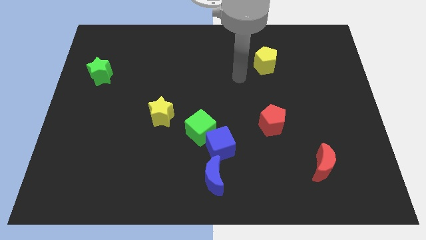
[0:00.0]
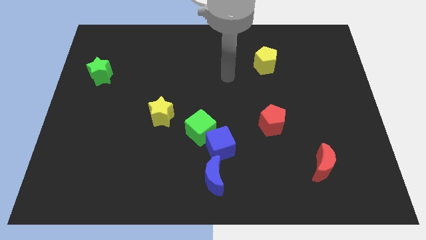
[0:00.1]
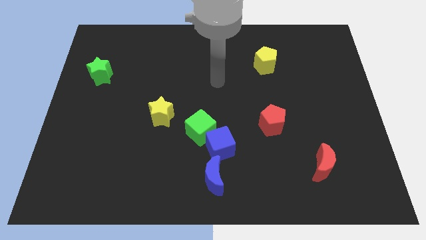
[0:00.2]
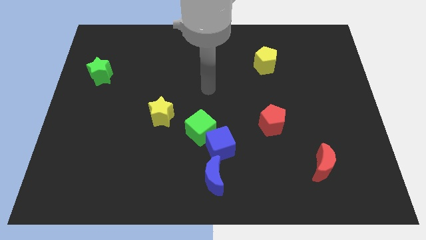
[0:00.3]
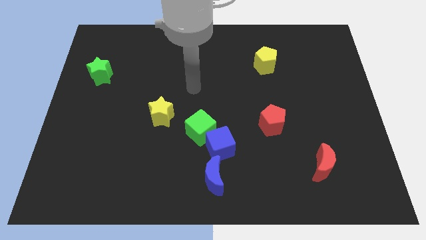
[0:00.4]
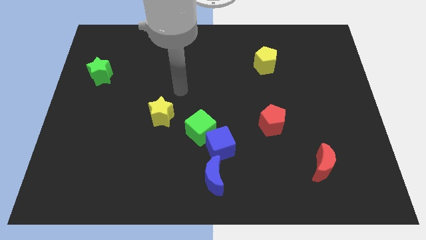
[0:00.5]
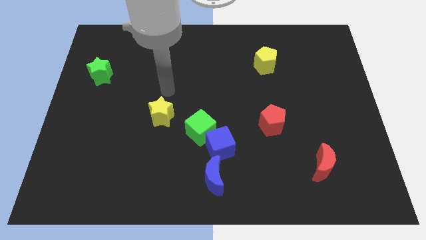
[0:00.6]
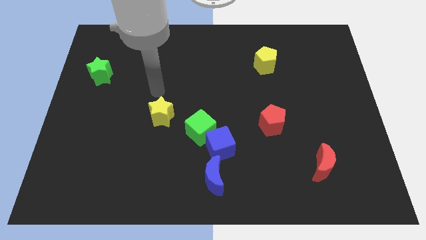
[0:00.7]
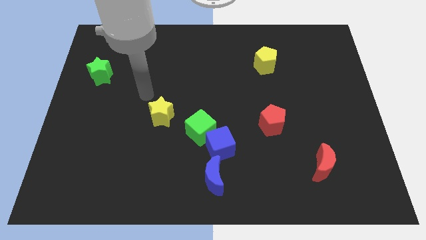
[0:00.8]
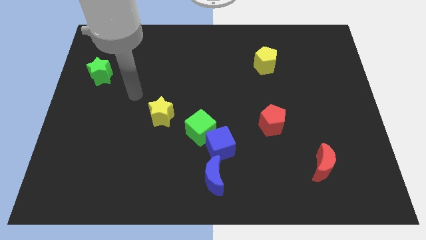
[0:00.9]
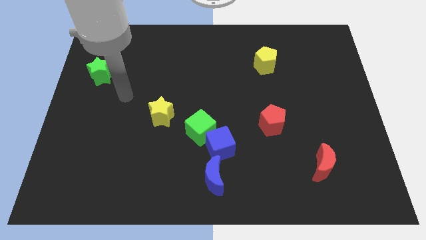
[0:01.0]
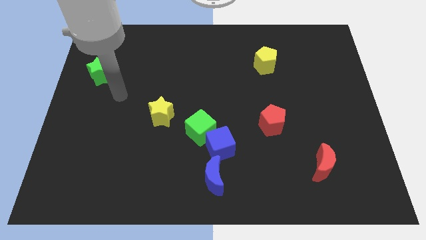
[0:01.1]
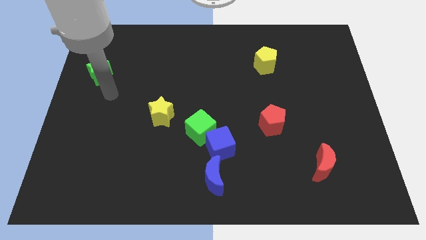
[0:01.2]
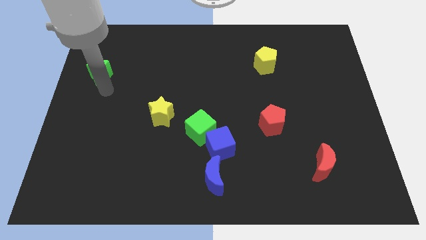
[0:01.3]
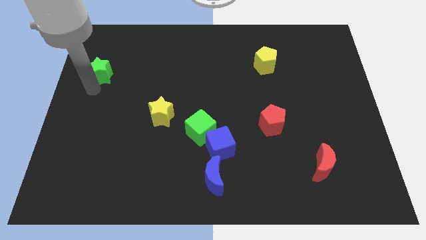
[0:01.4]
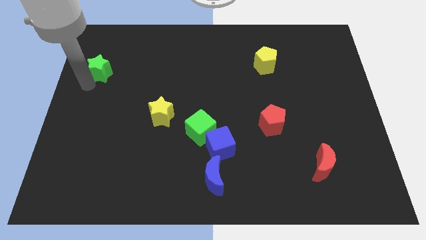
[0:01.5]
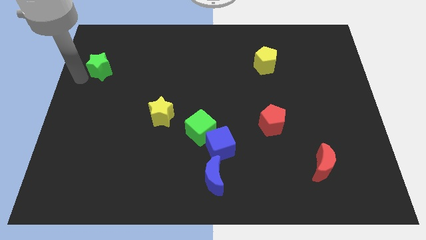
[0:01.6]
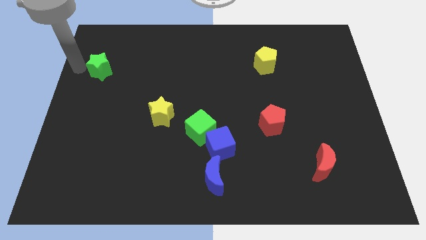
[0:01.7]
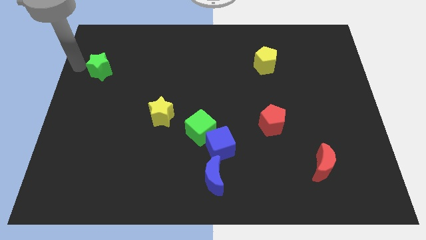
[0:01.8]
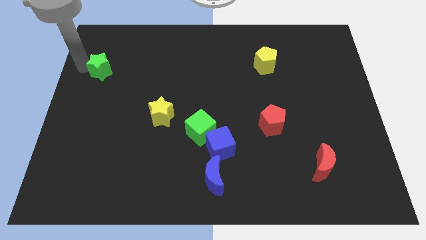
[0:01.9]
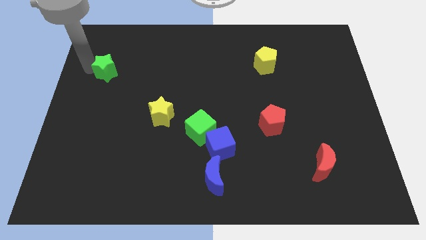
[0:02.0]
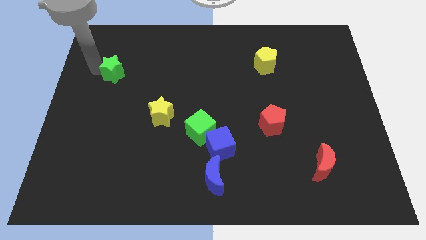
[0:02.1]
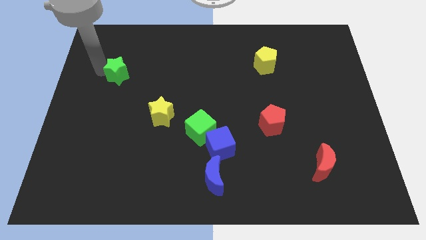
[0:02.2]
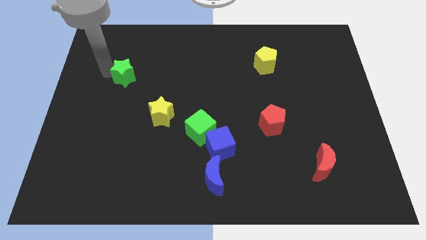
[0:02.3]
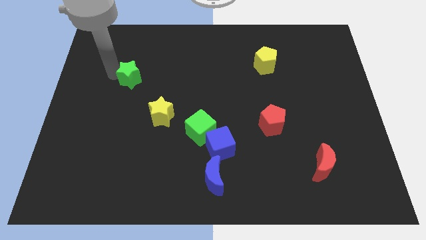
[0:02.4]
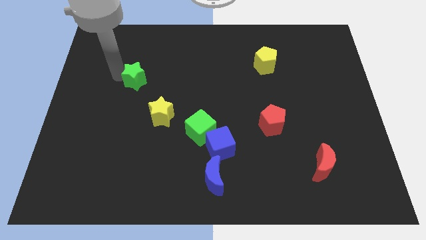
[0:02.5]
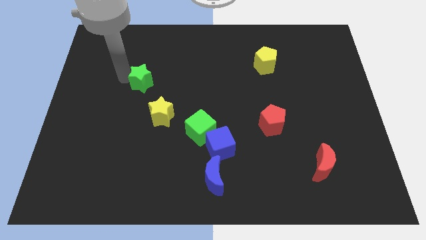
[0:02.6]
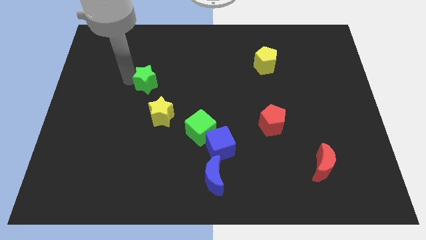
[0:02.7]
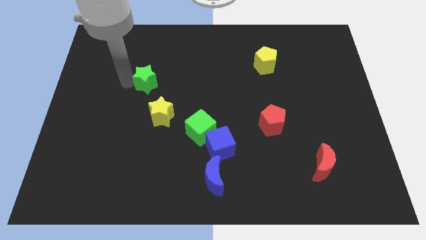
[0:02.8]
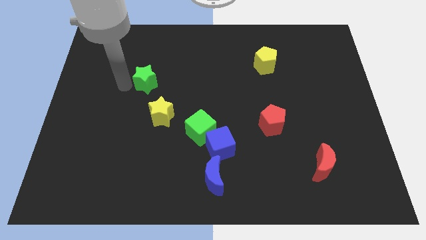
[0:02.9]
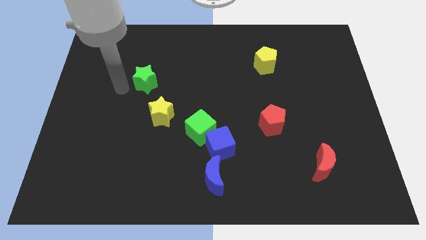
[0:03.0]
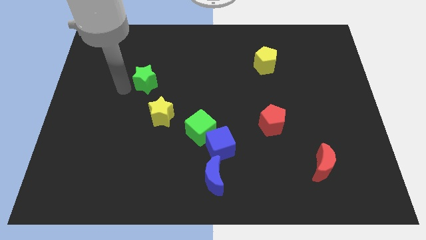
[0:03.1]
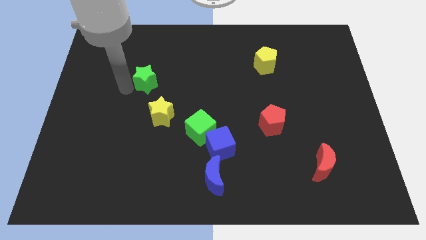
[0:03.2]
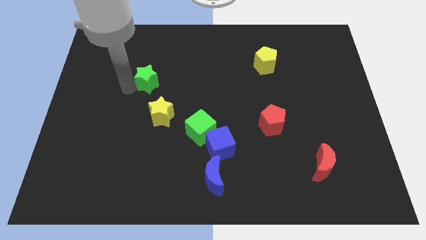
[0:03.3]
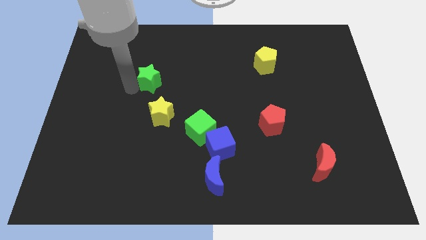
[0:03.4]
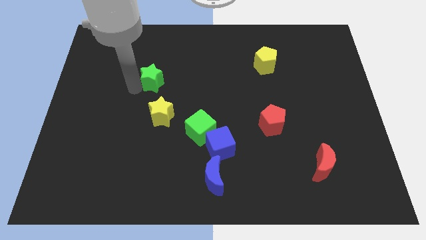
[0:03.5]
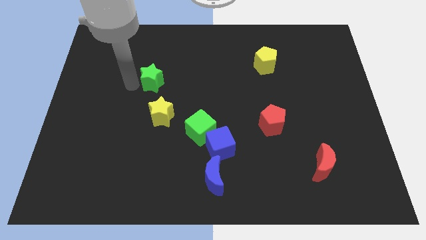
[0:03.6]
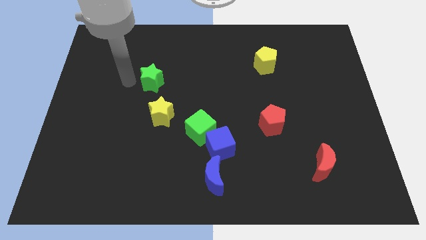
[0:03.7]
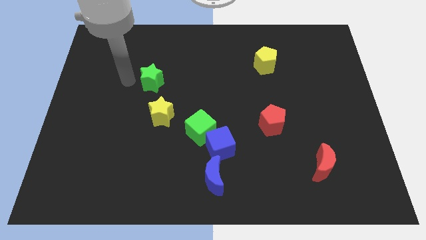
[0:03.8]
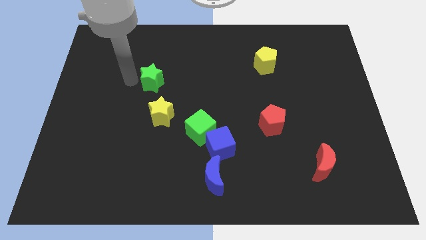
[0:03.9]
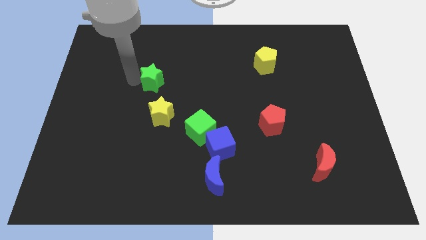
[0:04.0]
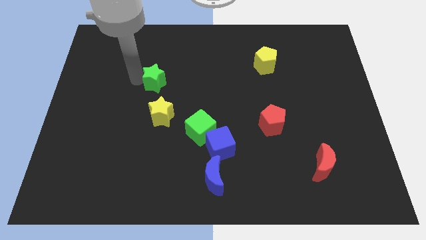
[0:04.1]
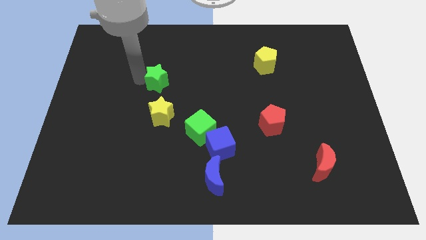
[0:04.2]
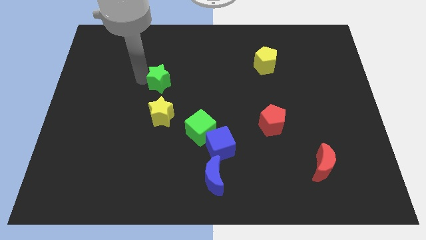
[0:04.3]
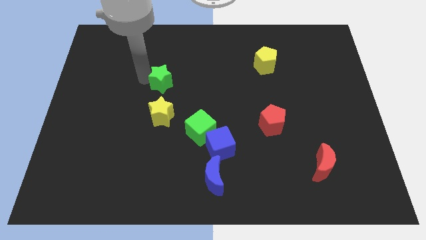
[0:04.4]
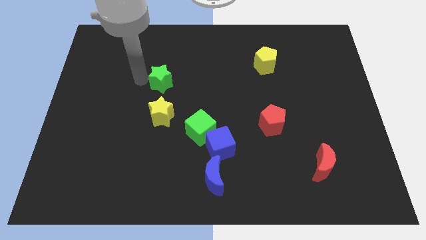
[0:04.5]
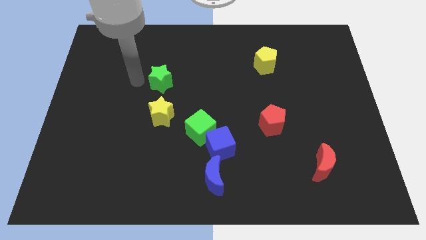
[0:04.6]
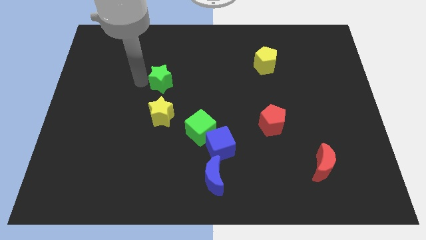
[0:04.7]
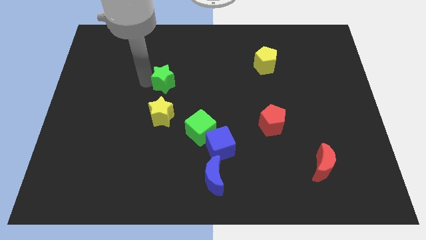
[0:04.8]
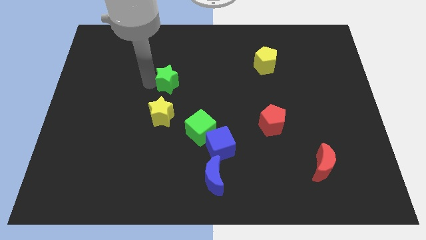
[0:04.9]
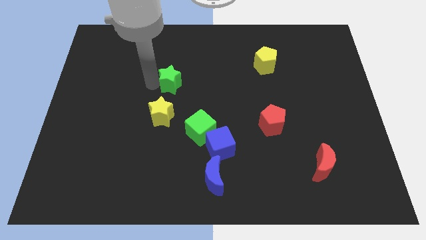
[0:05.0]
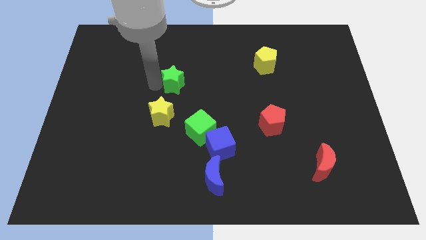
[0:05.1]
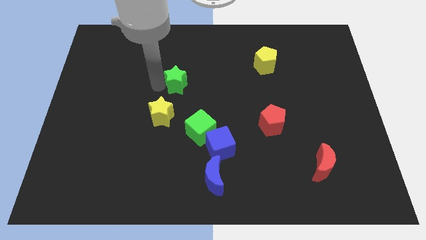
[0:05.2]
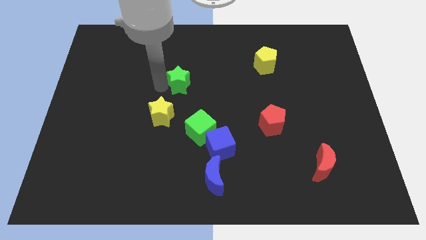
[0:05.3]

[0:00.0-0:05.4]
push the green star to the right

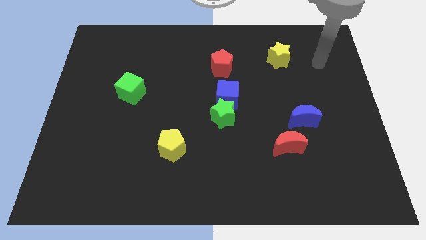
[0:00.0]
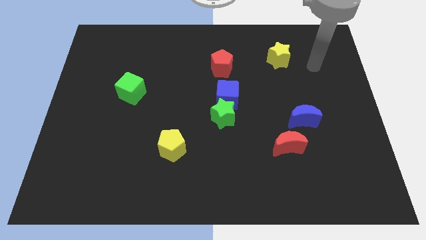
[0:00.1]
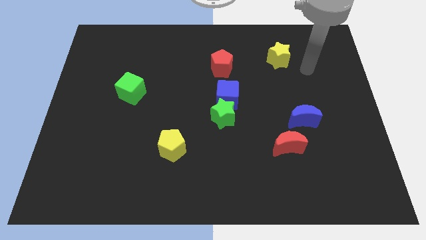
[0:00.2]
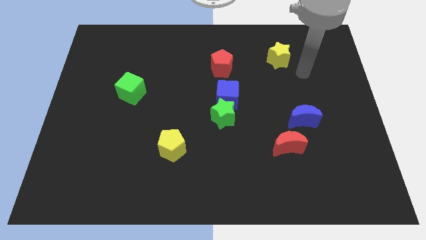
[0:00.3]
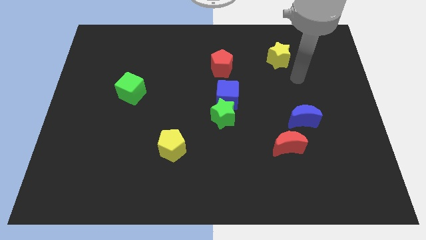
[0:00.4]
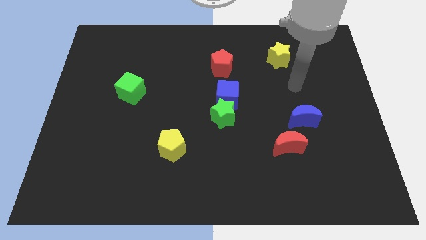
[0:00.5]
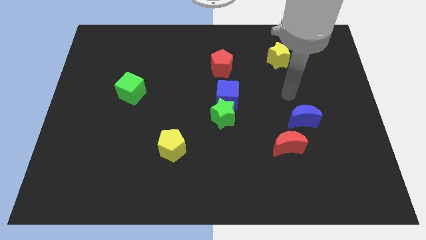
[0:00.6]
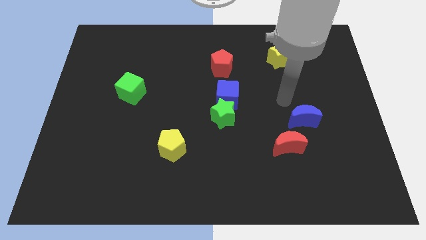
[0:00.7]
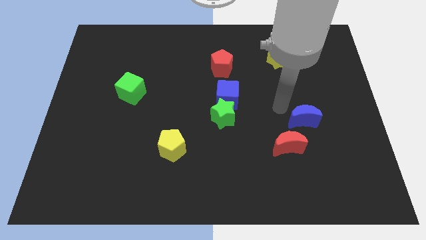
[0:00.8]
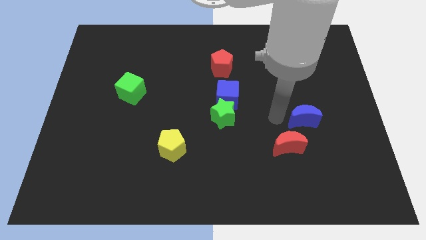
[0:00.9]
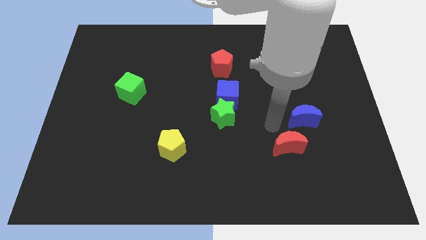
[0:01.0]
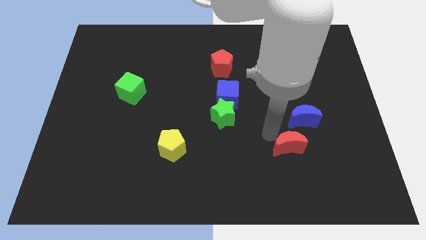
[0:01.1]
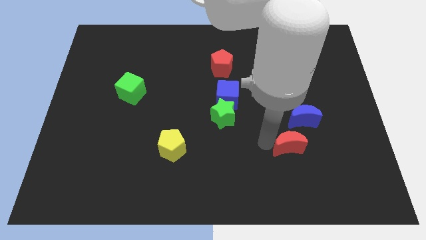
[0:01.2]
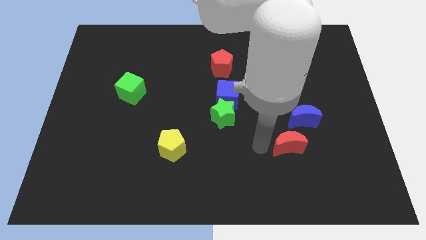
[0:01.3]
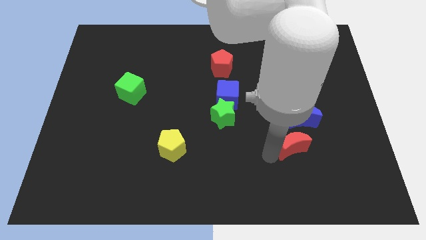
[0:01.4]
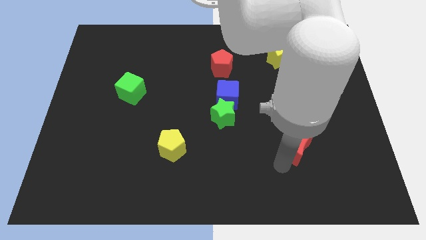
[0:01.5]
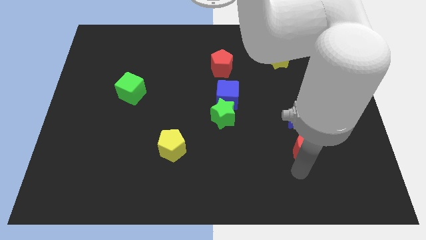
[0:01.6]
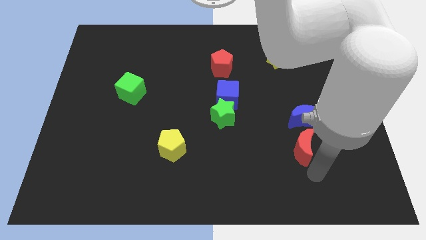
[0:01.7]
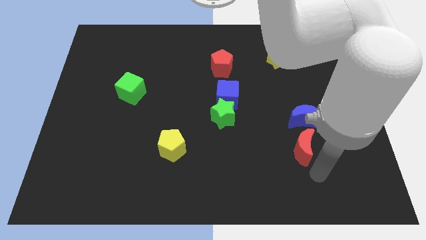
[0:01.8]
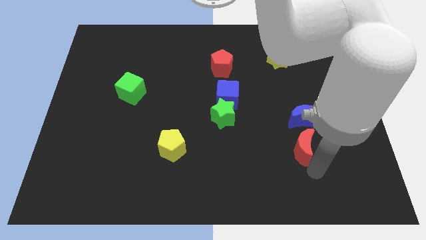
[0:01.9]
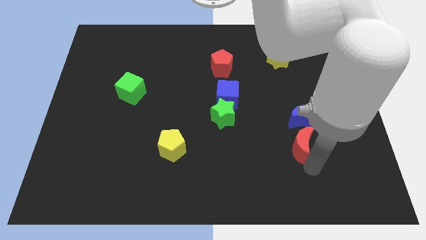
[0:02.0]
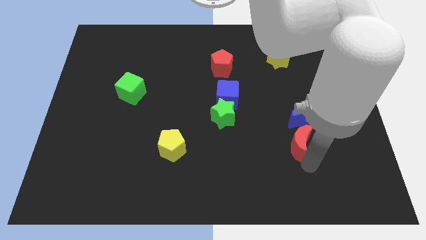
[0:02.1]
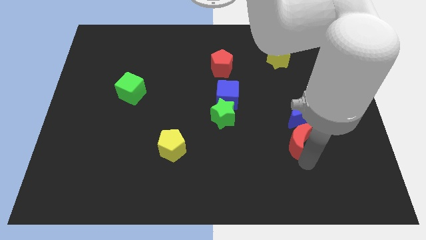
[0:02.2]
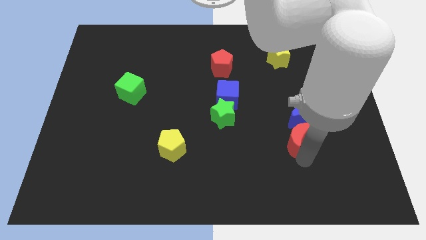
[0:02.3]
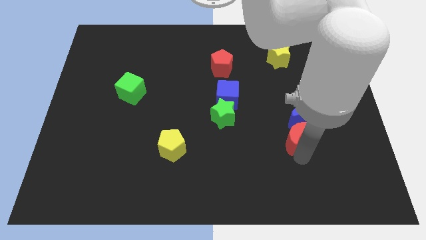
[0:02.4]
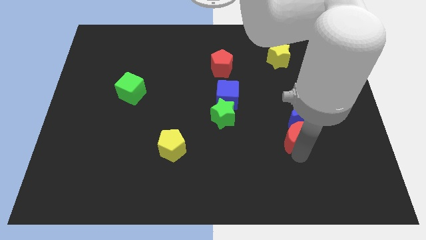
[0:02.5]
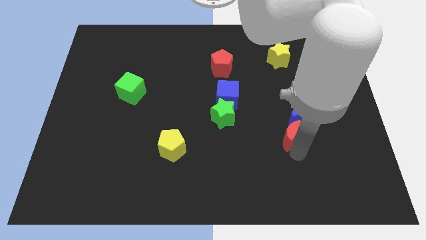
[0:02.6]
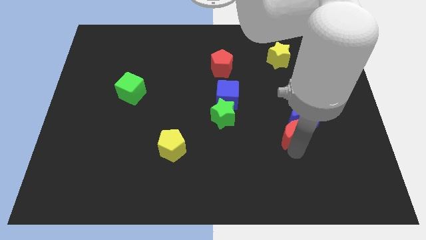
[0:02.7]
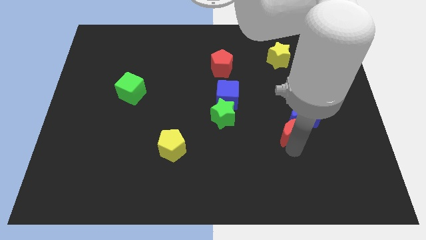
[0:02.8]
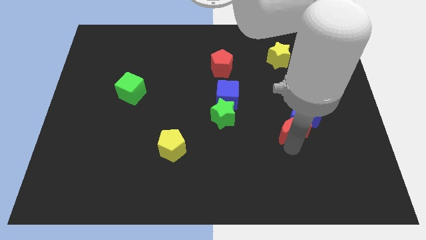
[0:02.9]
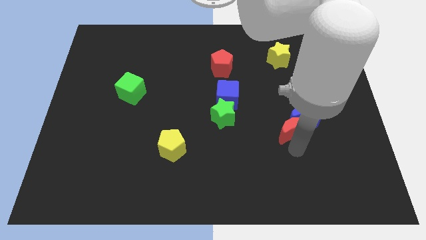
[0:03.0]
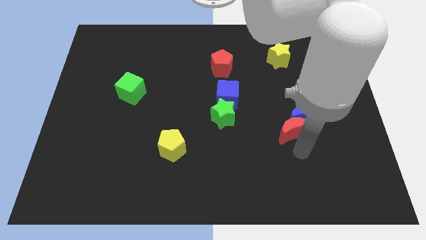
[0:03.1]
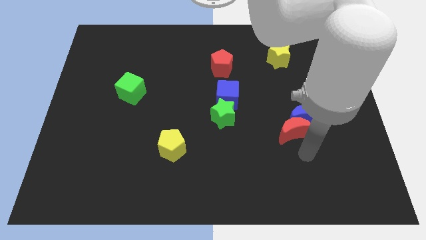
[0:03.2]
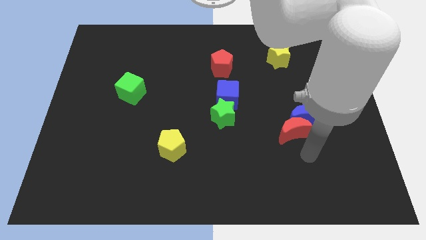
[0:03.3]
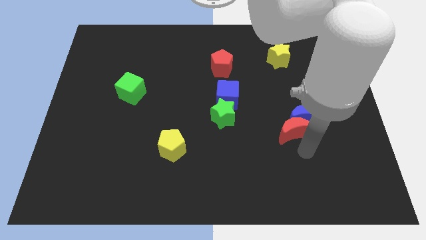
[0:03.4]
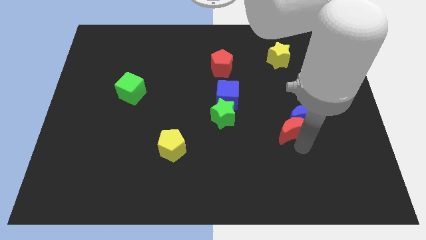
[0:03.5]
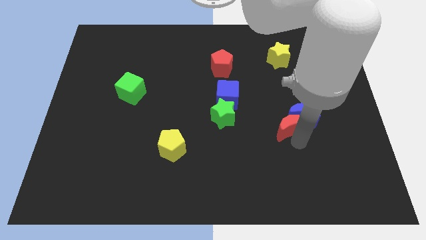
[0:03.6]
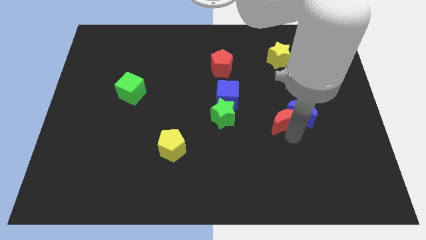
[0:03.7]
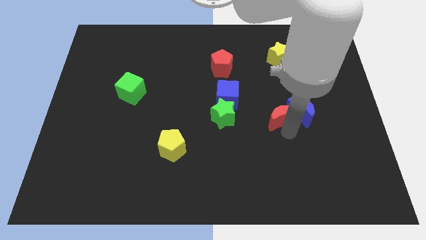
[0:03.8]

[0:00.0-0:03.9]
slightly slide the red moon upwards
